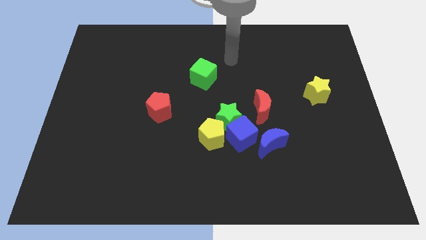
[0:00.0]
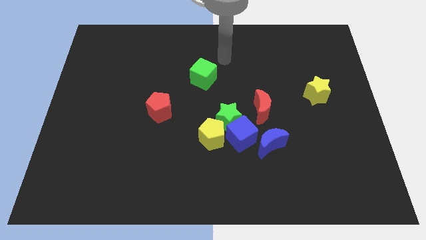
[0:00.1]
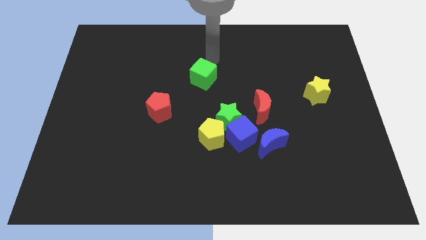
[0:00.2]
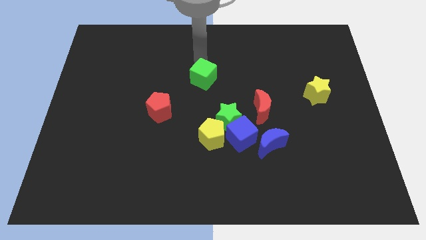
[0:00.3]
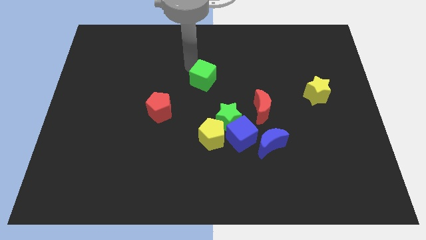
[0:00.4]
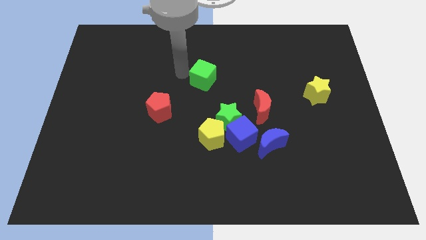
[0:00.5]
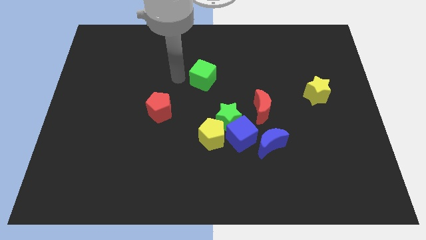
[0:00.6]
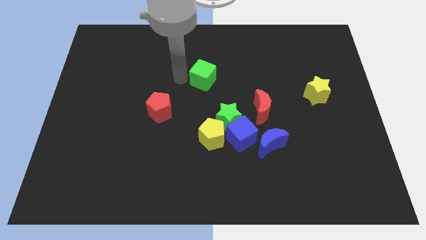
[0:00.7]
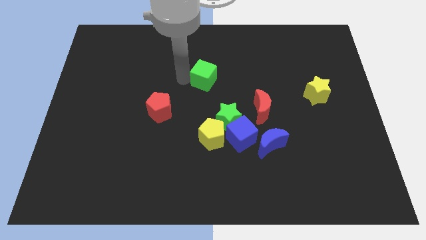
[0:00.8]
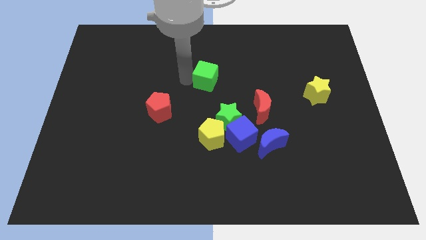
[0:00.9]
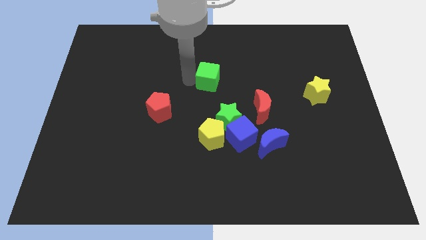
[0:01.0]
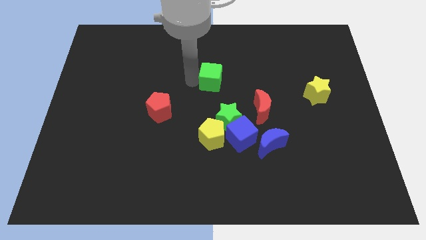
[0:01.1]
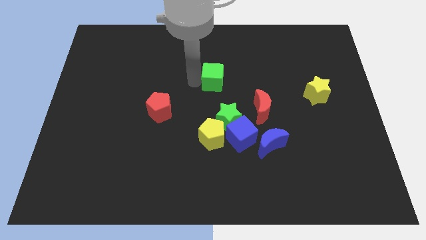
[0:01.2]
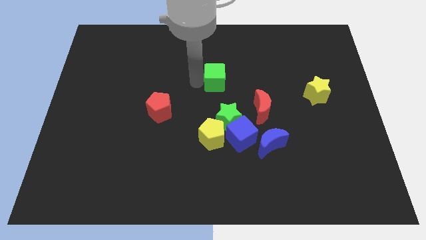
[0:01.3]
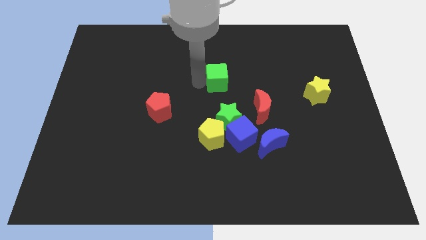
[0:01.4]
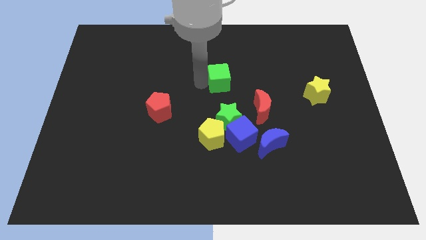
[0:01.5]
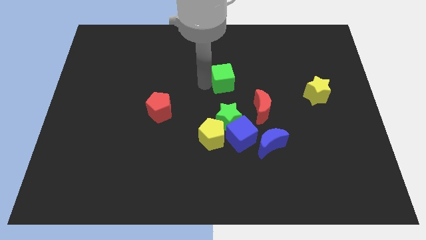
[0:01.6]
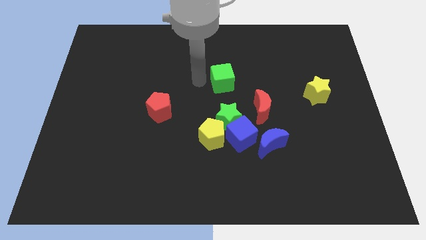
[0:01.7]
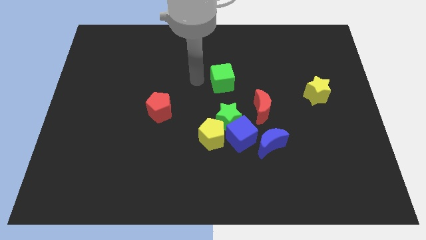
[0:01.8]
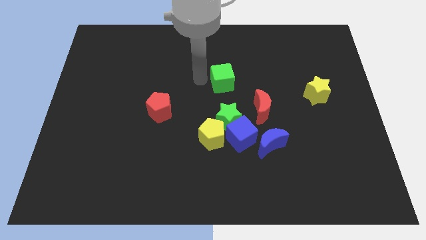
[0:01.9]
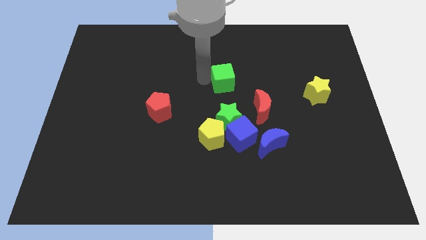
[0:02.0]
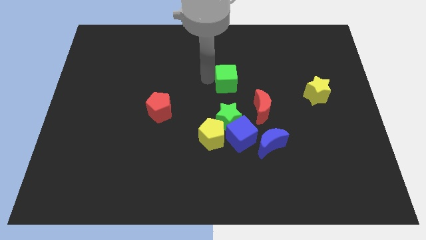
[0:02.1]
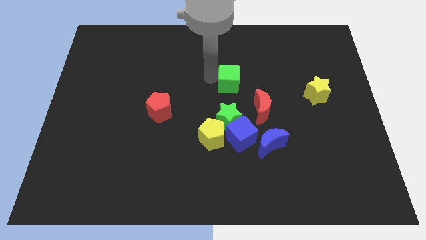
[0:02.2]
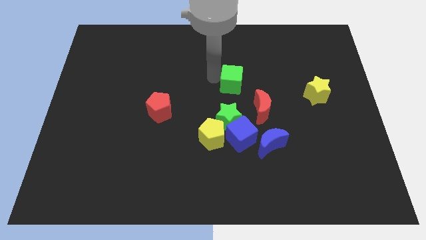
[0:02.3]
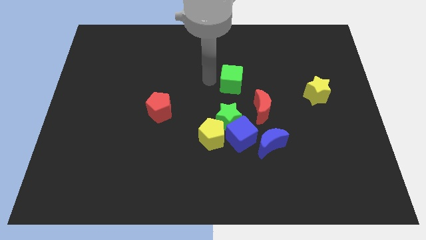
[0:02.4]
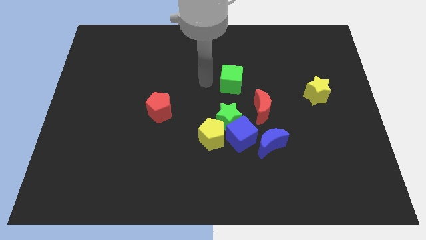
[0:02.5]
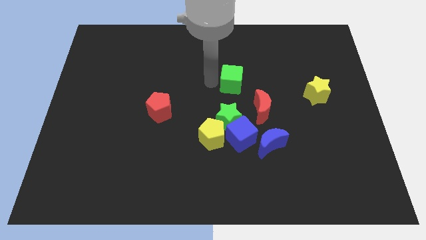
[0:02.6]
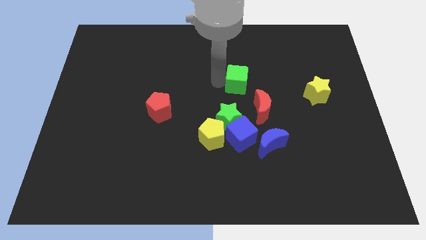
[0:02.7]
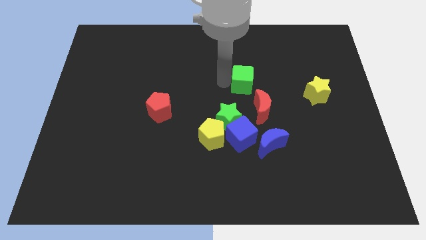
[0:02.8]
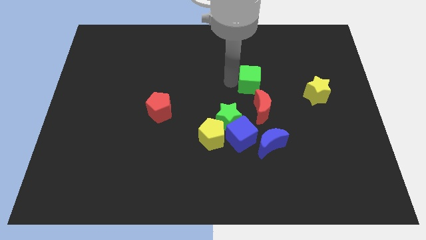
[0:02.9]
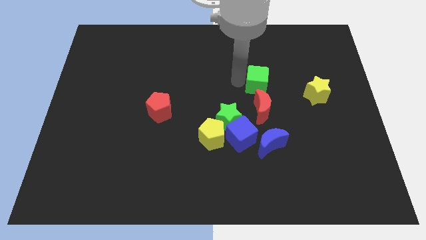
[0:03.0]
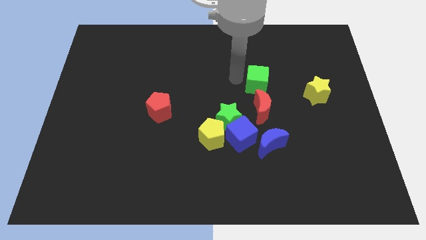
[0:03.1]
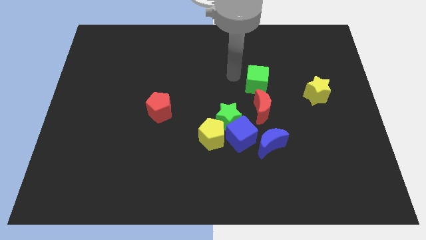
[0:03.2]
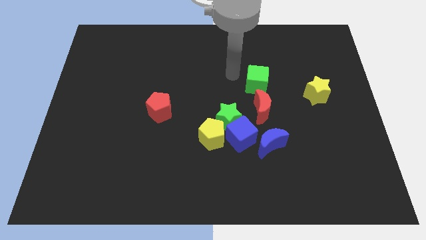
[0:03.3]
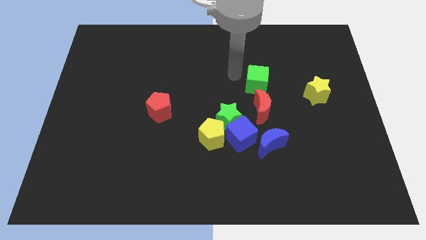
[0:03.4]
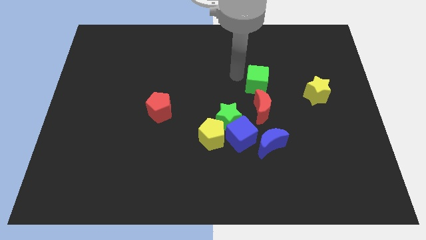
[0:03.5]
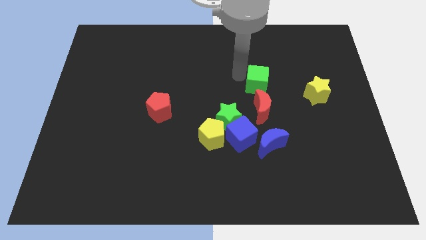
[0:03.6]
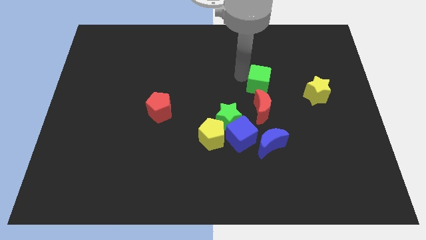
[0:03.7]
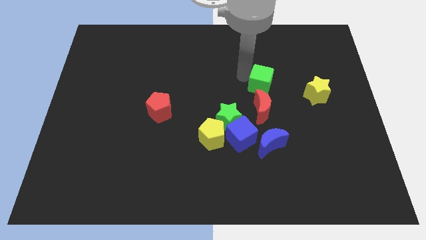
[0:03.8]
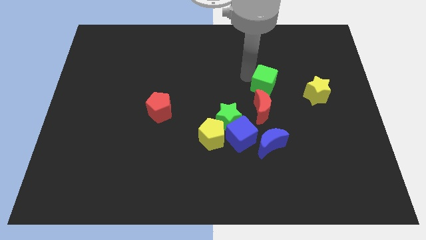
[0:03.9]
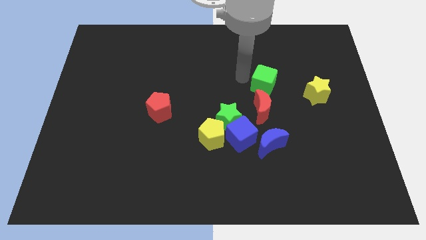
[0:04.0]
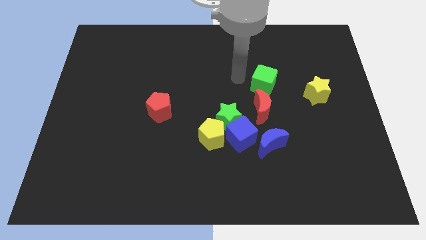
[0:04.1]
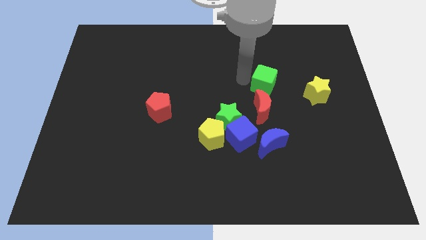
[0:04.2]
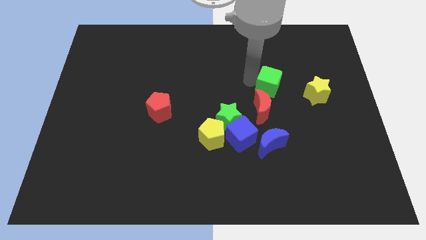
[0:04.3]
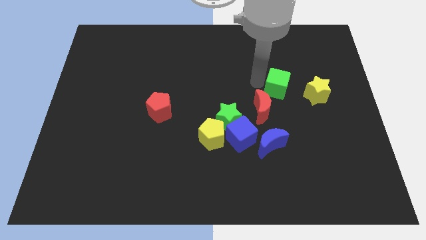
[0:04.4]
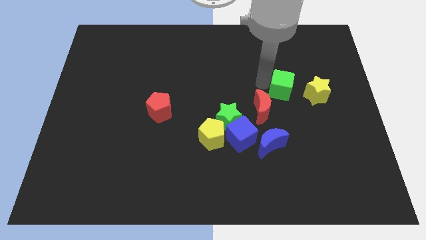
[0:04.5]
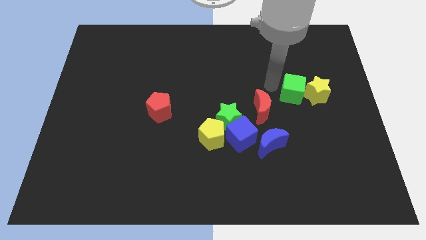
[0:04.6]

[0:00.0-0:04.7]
put the green cube towards the yellow star

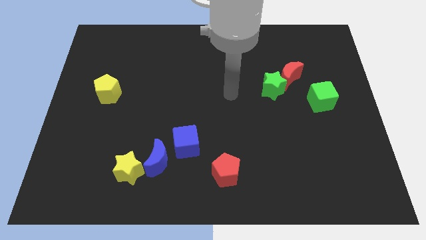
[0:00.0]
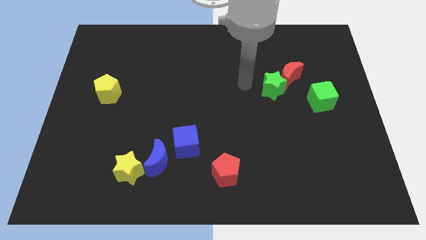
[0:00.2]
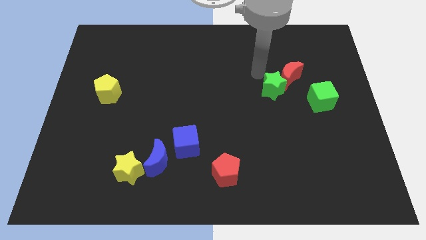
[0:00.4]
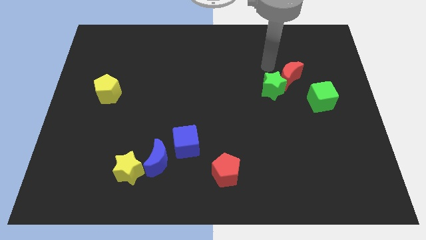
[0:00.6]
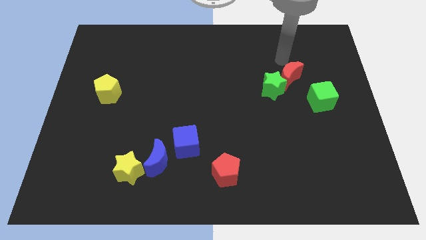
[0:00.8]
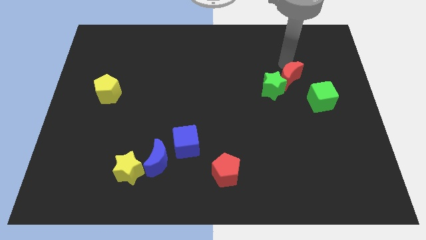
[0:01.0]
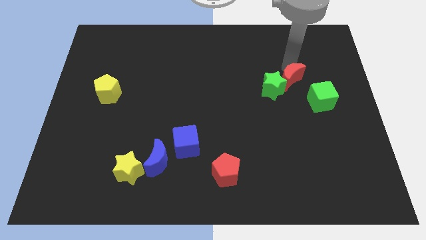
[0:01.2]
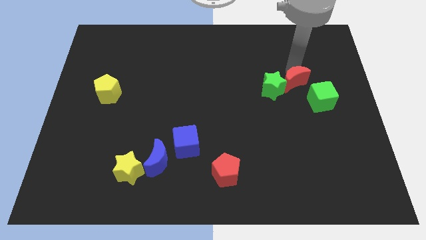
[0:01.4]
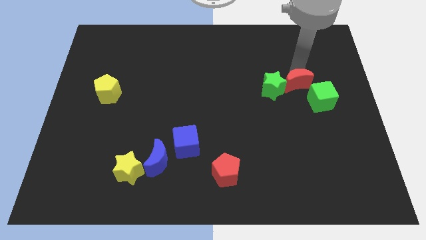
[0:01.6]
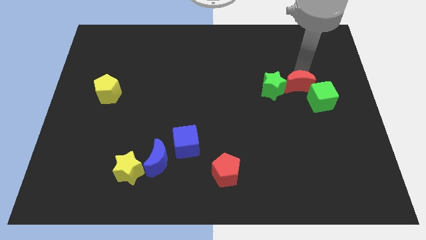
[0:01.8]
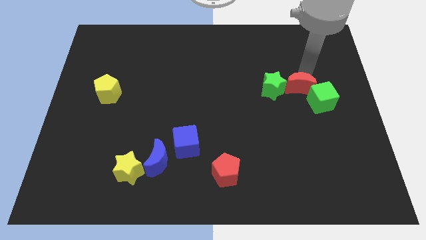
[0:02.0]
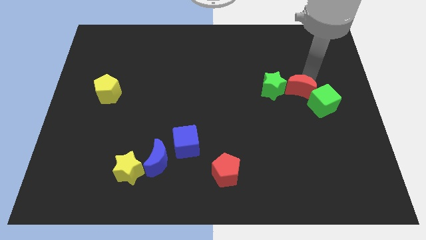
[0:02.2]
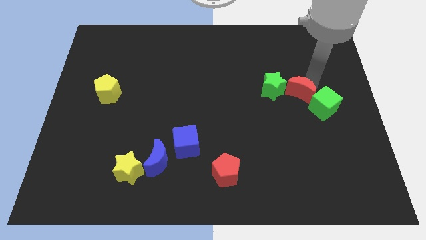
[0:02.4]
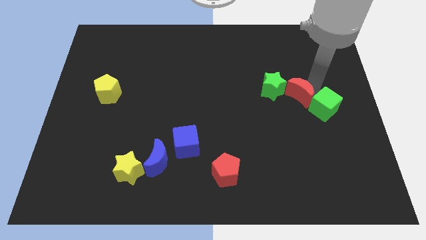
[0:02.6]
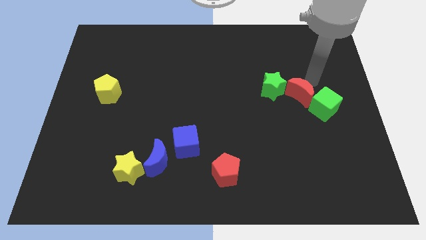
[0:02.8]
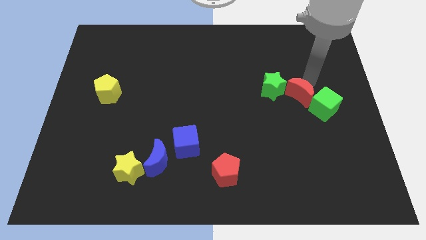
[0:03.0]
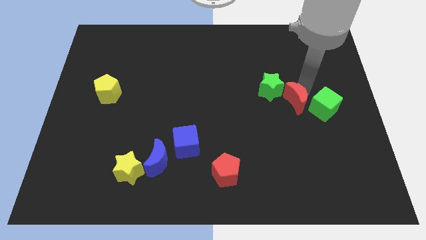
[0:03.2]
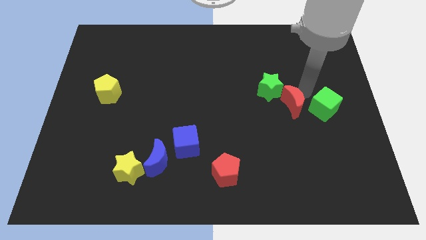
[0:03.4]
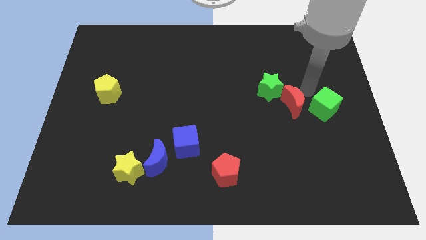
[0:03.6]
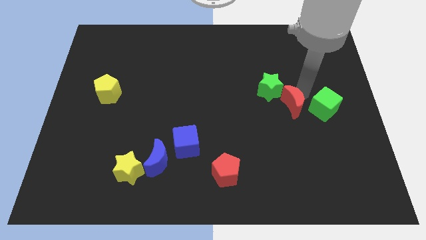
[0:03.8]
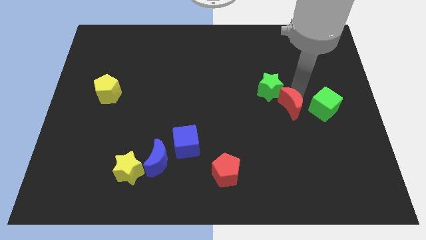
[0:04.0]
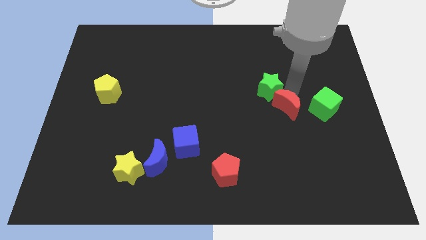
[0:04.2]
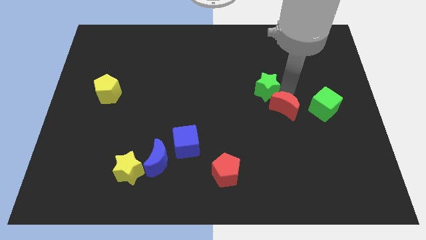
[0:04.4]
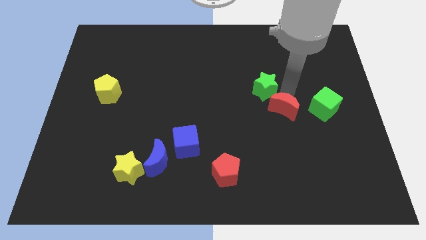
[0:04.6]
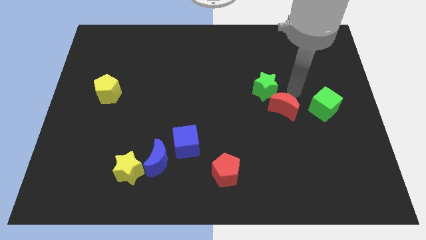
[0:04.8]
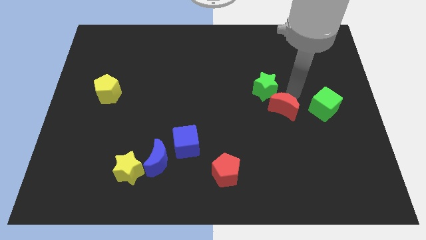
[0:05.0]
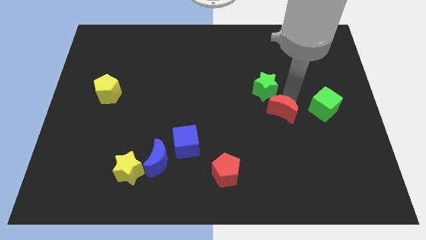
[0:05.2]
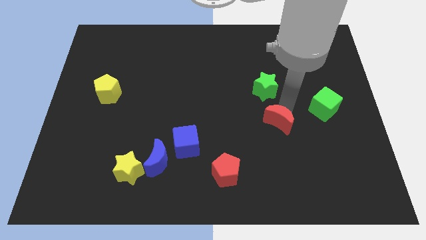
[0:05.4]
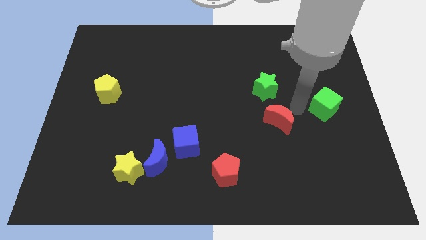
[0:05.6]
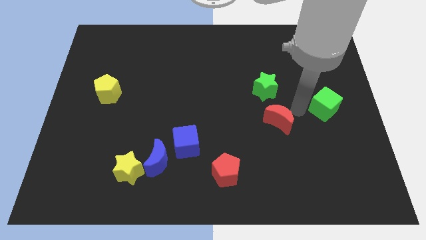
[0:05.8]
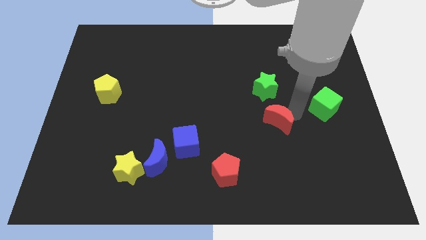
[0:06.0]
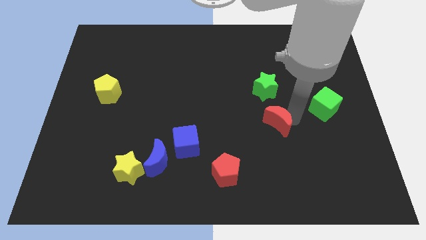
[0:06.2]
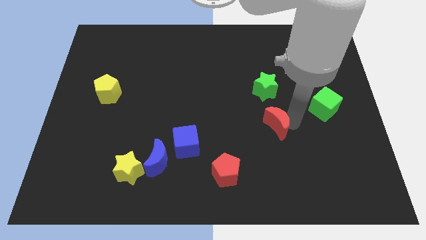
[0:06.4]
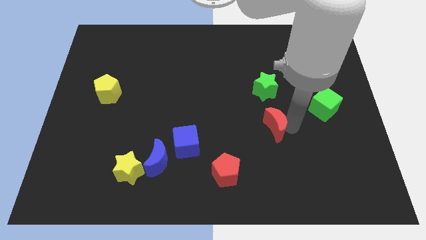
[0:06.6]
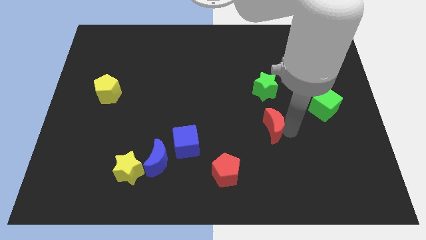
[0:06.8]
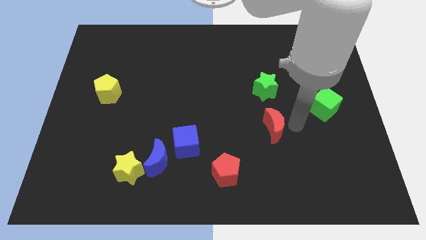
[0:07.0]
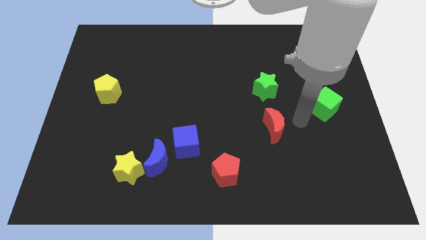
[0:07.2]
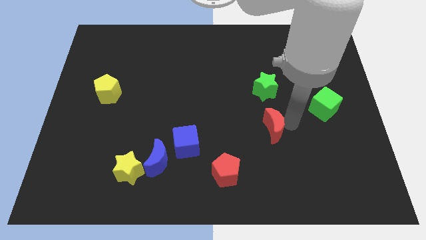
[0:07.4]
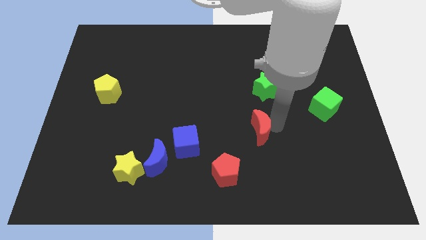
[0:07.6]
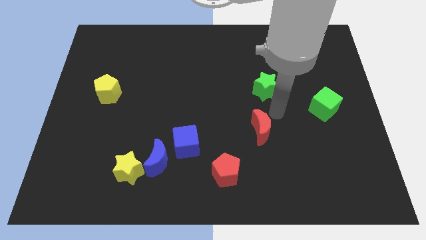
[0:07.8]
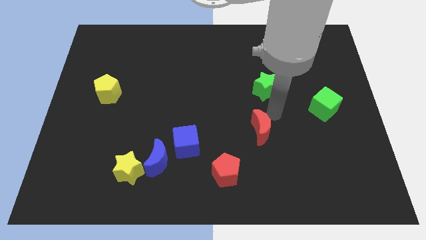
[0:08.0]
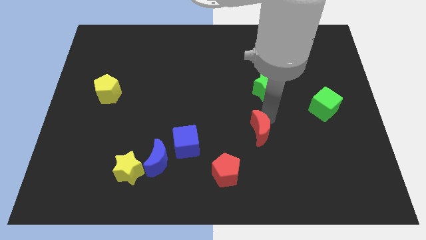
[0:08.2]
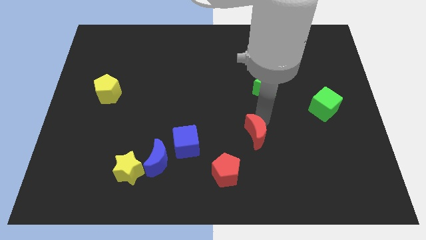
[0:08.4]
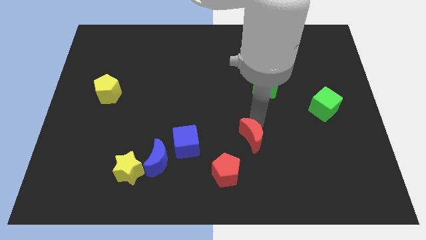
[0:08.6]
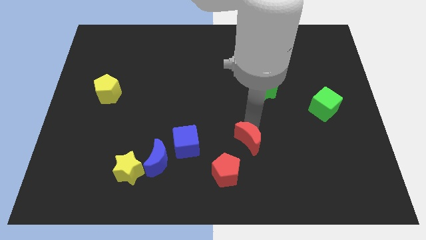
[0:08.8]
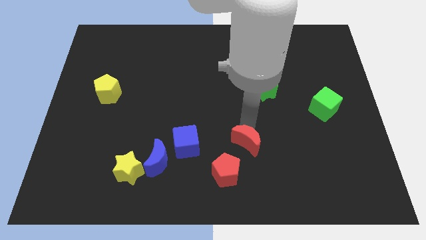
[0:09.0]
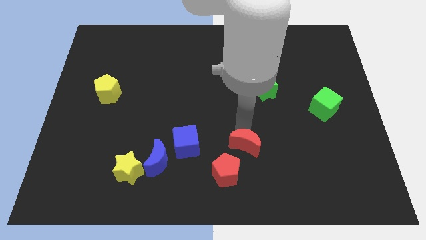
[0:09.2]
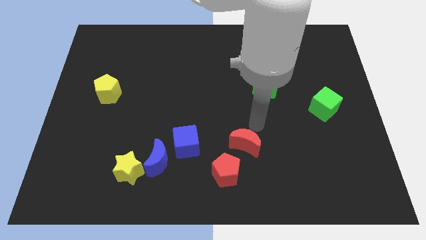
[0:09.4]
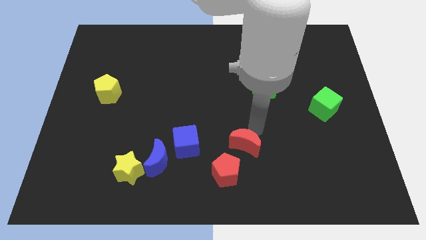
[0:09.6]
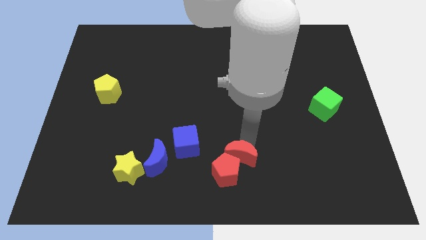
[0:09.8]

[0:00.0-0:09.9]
put the red moon close to the red pentagon
